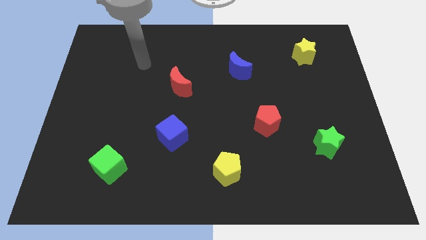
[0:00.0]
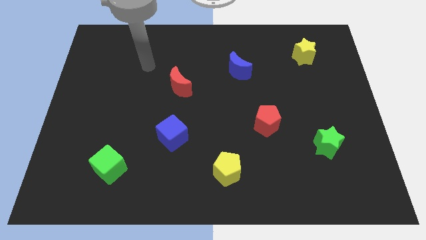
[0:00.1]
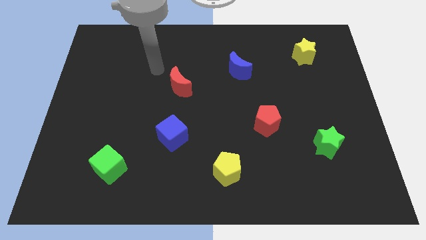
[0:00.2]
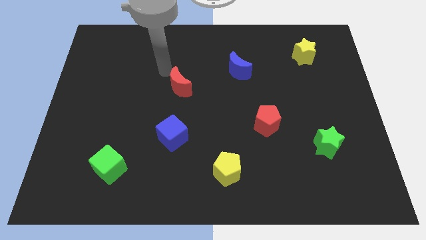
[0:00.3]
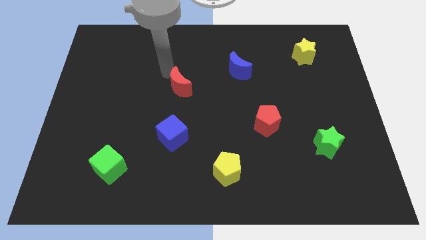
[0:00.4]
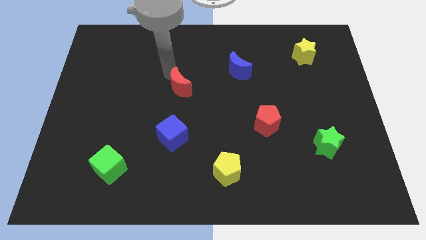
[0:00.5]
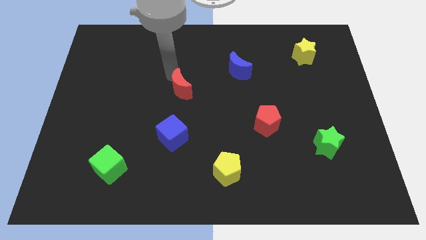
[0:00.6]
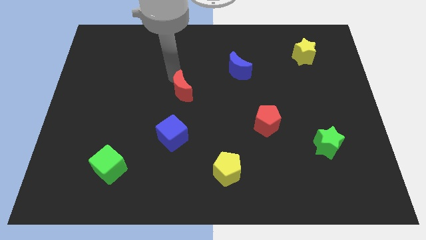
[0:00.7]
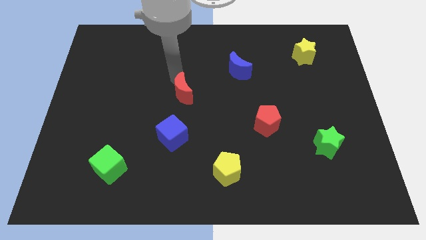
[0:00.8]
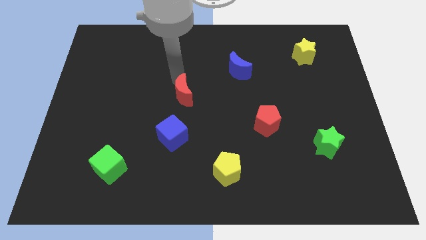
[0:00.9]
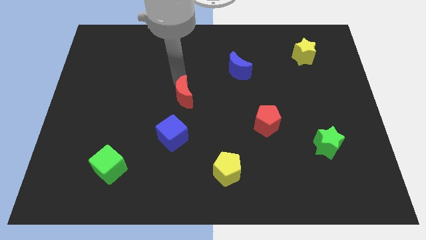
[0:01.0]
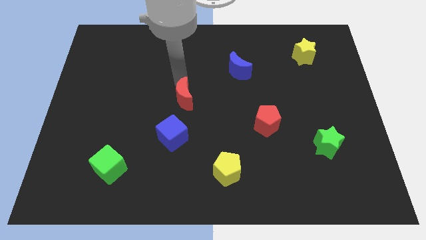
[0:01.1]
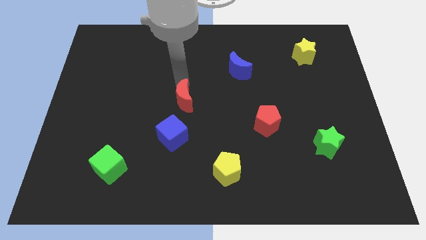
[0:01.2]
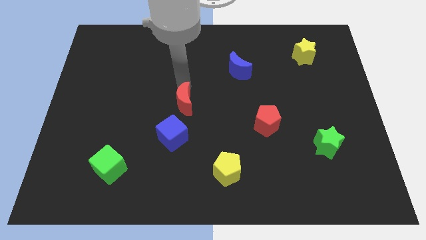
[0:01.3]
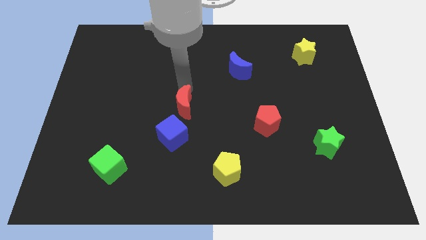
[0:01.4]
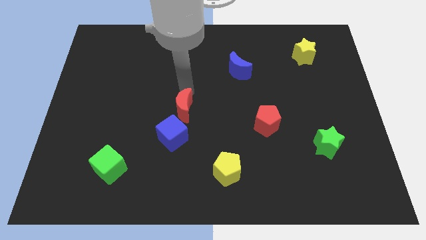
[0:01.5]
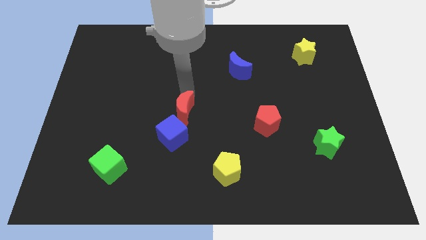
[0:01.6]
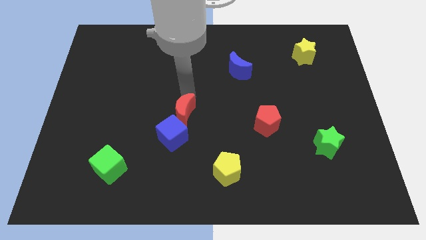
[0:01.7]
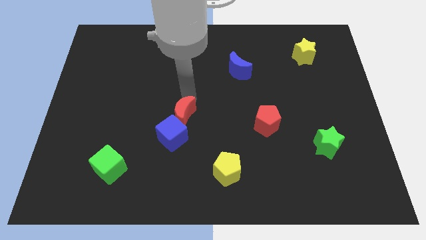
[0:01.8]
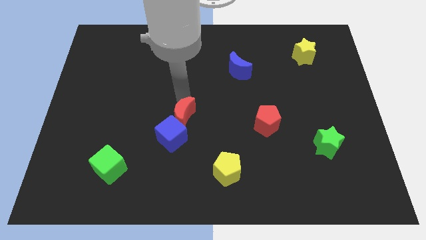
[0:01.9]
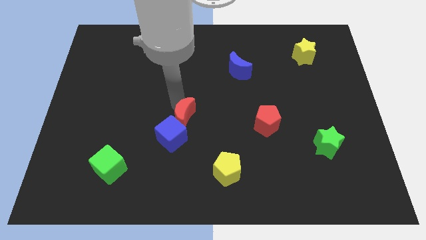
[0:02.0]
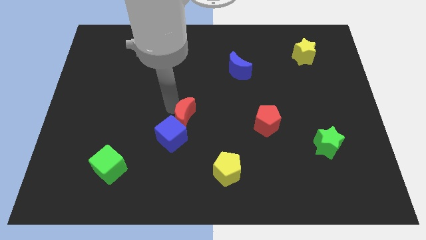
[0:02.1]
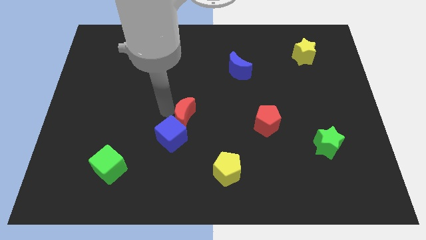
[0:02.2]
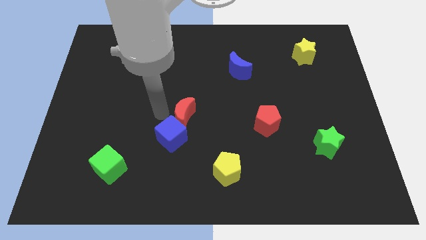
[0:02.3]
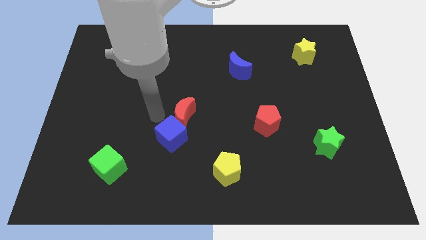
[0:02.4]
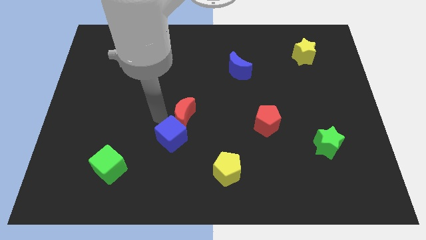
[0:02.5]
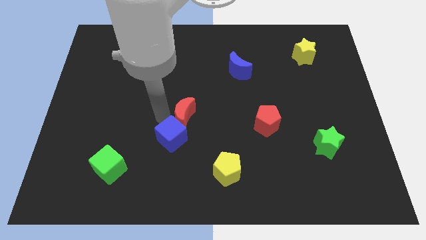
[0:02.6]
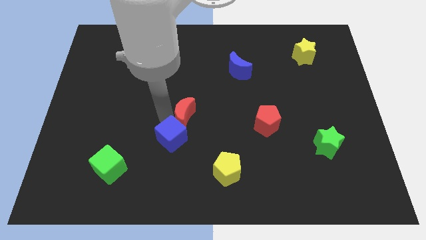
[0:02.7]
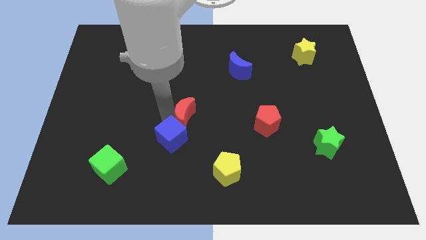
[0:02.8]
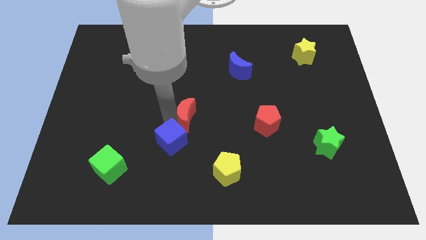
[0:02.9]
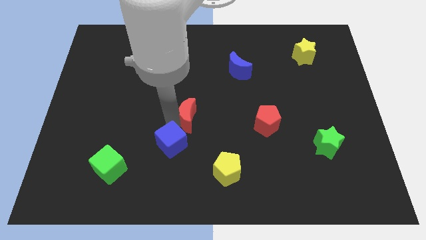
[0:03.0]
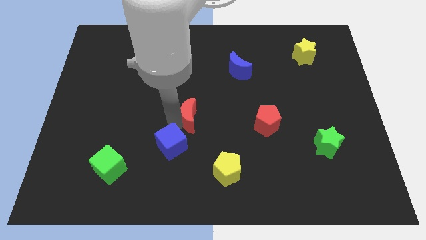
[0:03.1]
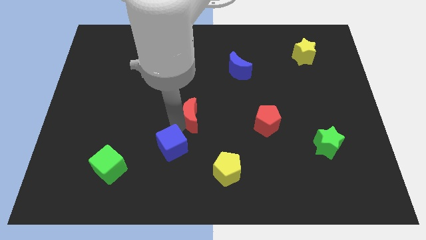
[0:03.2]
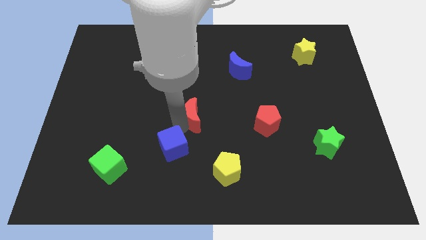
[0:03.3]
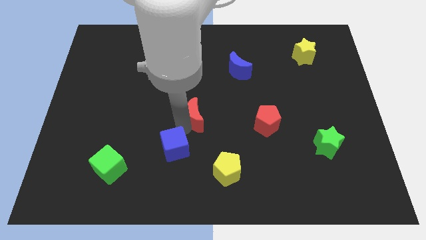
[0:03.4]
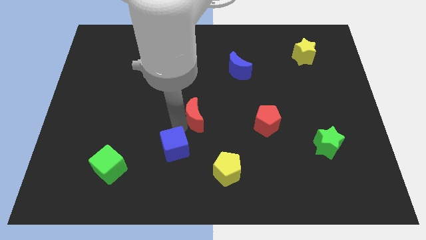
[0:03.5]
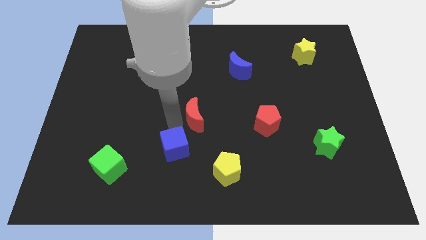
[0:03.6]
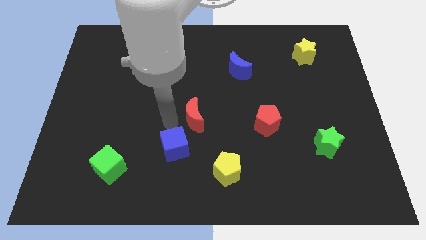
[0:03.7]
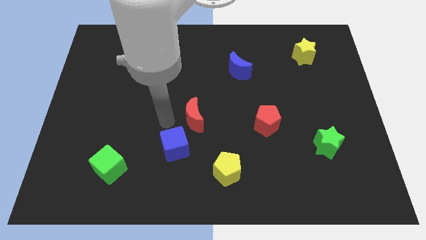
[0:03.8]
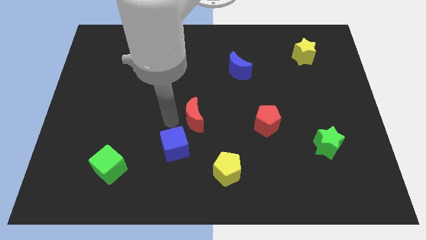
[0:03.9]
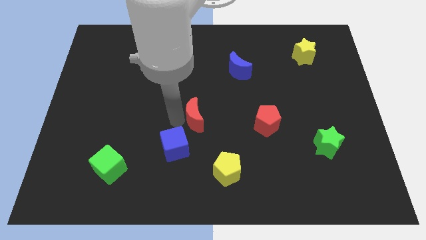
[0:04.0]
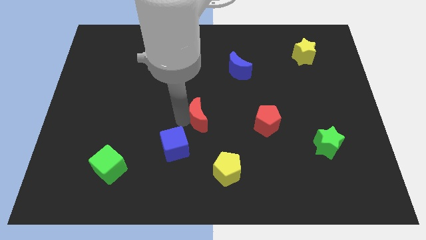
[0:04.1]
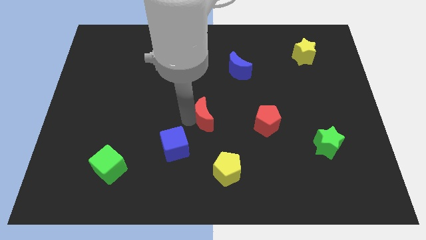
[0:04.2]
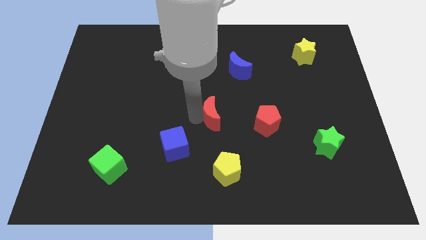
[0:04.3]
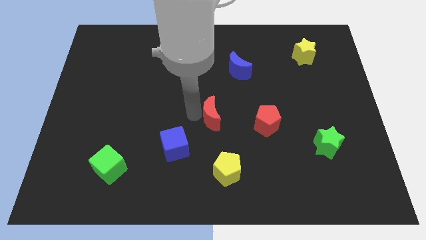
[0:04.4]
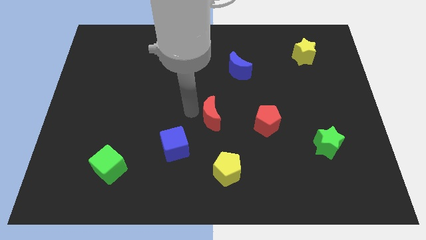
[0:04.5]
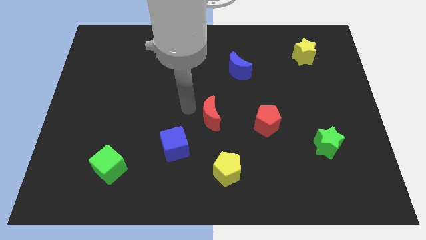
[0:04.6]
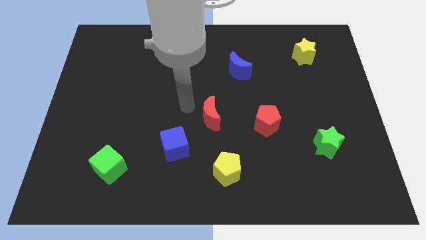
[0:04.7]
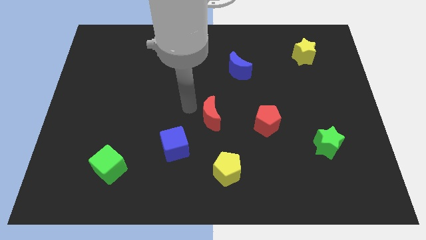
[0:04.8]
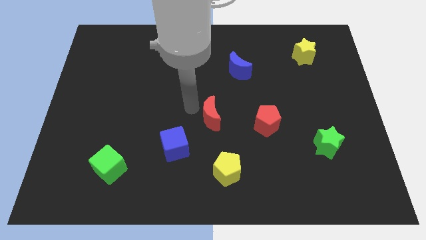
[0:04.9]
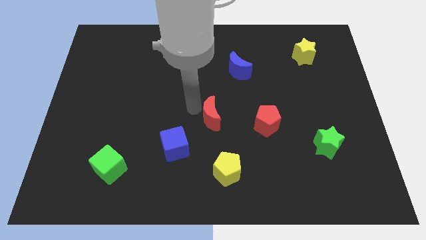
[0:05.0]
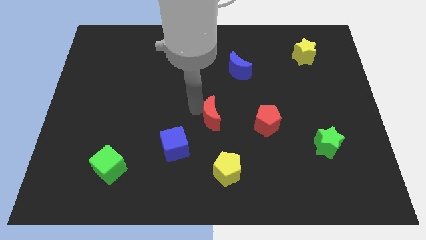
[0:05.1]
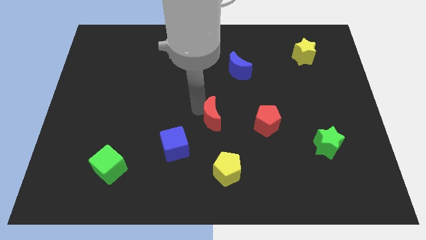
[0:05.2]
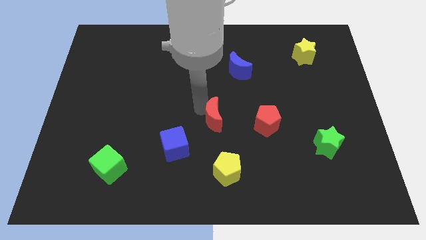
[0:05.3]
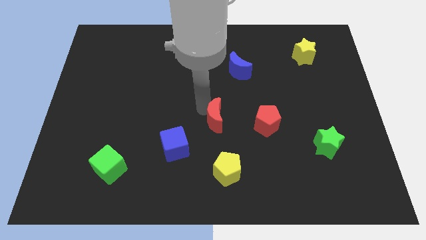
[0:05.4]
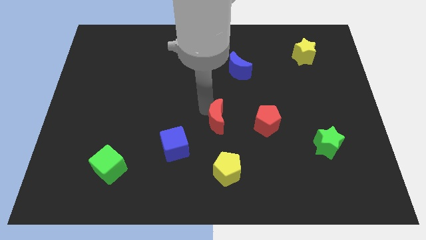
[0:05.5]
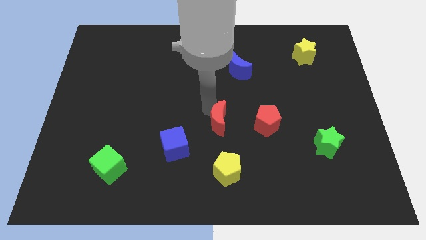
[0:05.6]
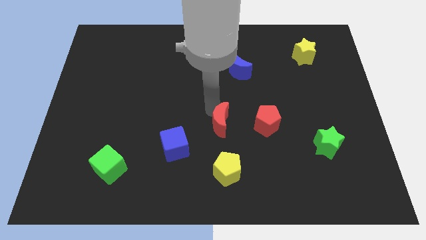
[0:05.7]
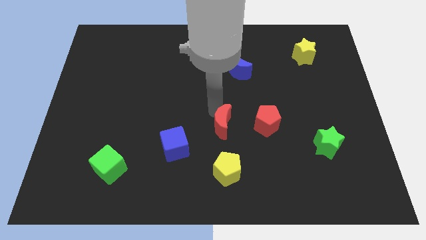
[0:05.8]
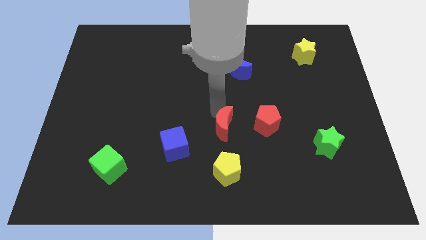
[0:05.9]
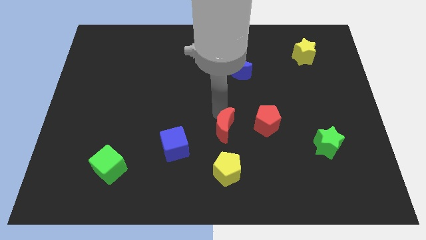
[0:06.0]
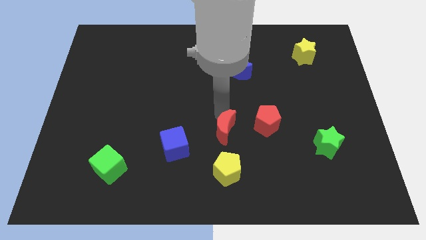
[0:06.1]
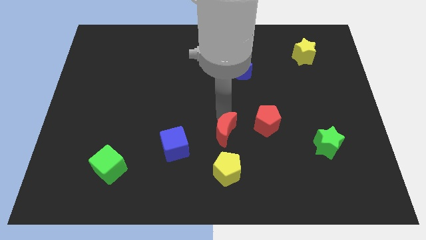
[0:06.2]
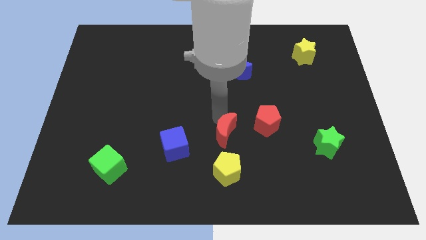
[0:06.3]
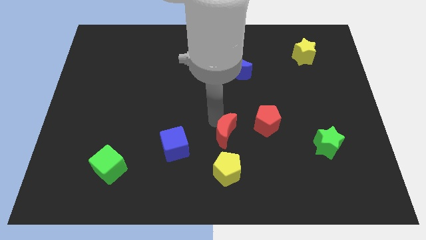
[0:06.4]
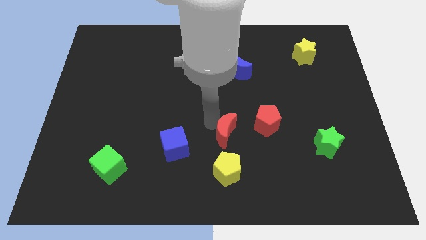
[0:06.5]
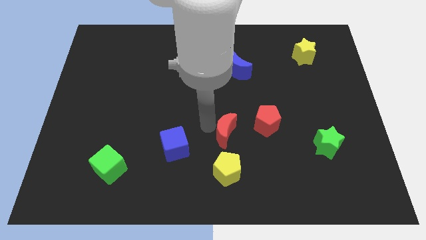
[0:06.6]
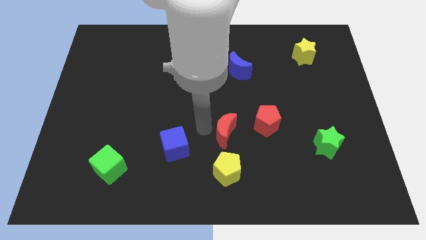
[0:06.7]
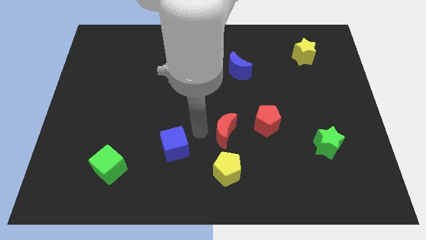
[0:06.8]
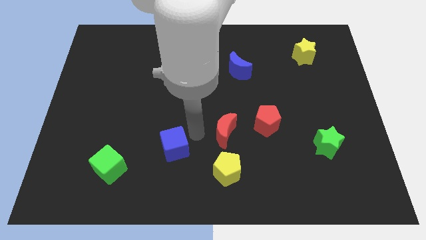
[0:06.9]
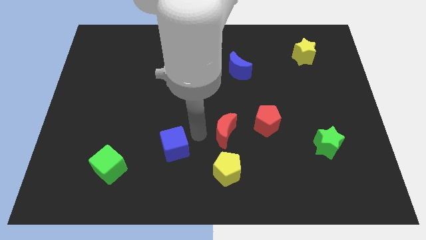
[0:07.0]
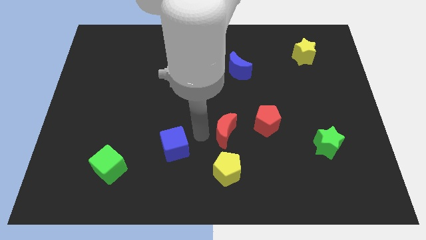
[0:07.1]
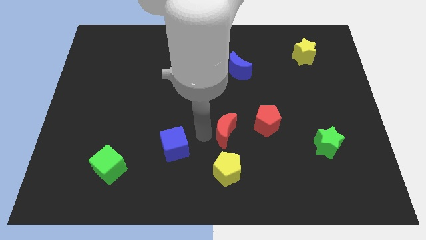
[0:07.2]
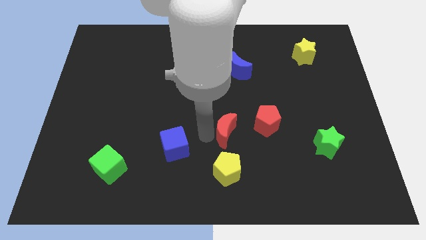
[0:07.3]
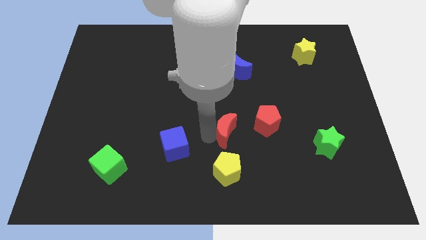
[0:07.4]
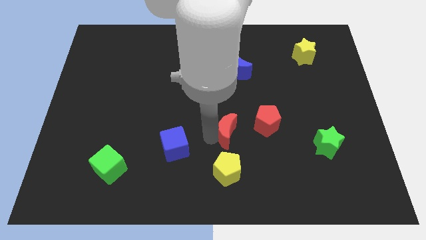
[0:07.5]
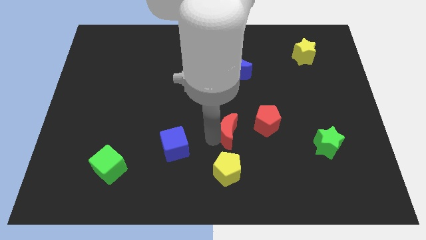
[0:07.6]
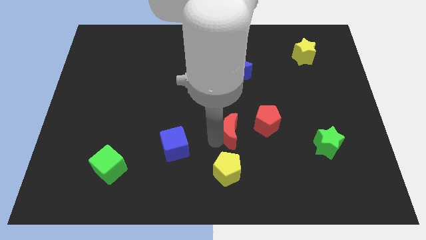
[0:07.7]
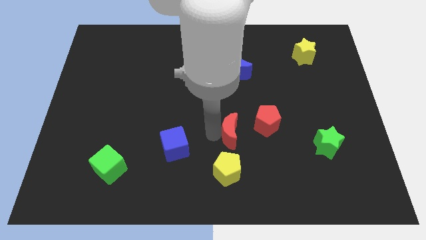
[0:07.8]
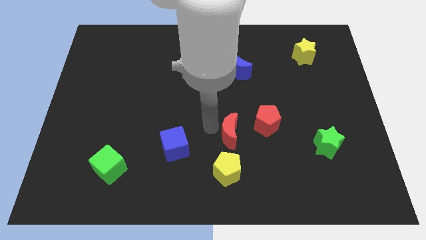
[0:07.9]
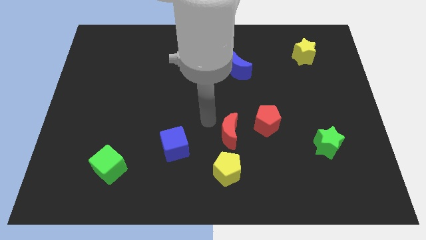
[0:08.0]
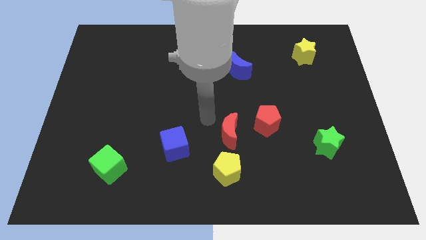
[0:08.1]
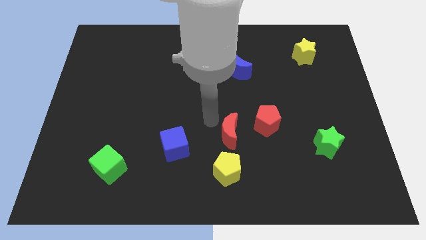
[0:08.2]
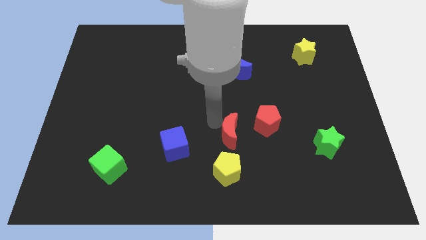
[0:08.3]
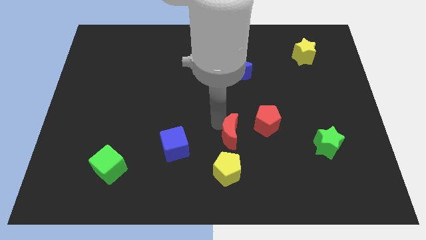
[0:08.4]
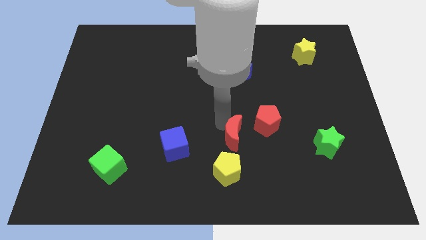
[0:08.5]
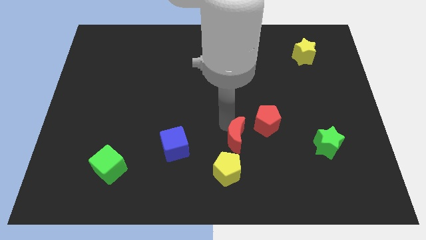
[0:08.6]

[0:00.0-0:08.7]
push the red moon diagonally downwards and to the right

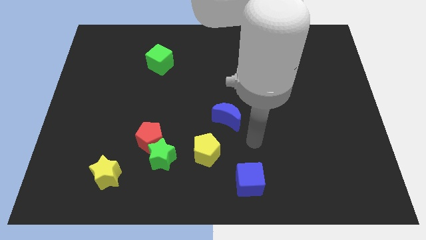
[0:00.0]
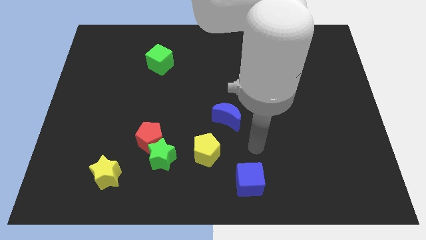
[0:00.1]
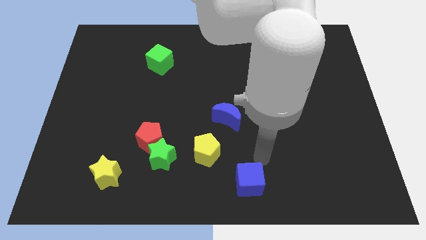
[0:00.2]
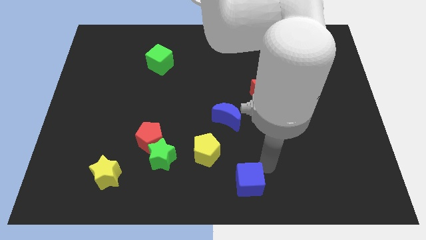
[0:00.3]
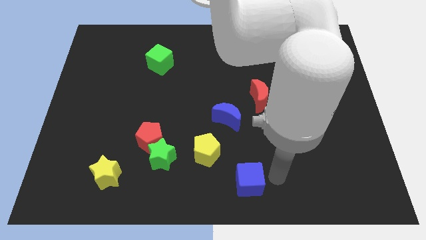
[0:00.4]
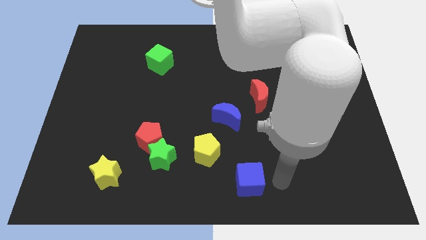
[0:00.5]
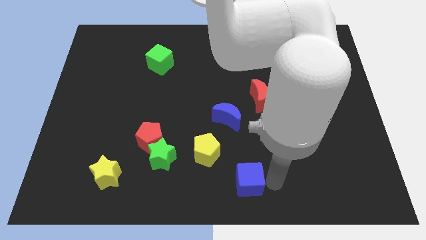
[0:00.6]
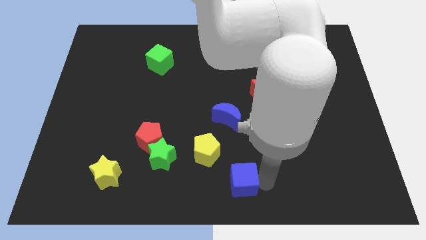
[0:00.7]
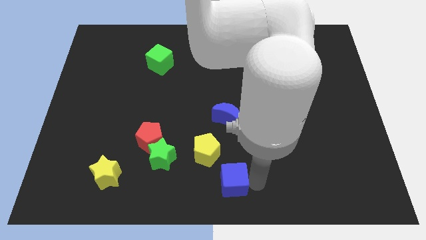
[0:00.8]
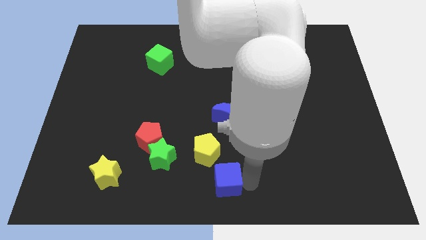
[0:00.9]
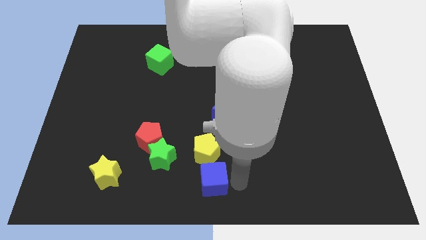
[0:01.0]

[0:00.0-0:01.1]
slightly push the blue cube left
